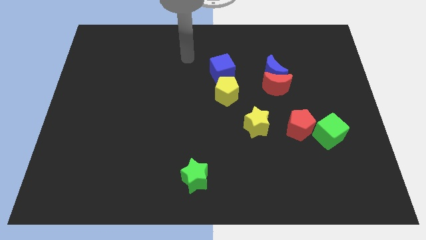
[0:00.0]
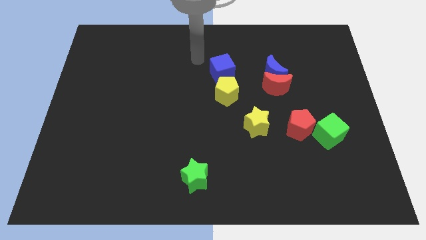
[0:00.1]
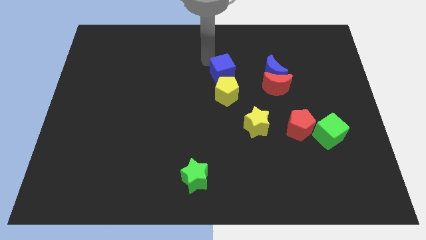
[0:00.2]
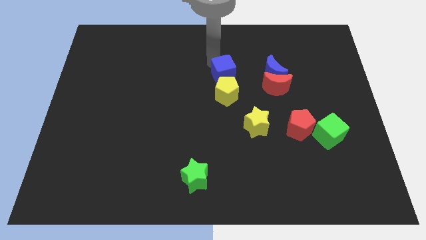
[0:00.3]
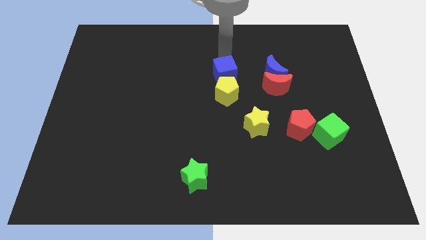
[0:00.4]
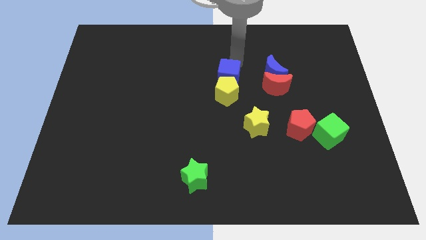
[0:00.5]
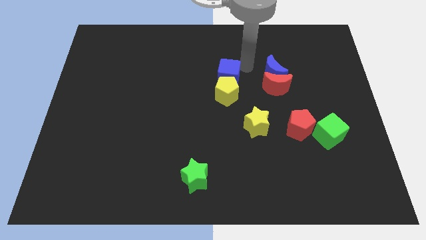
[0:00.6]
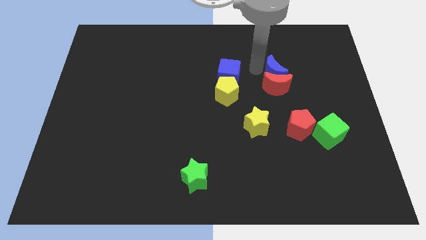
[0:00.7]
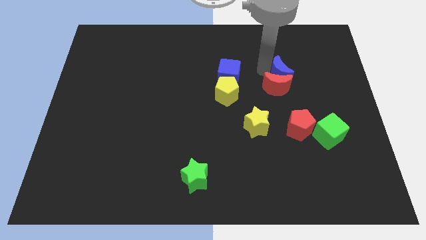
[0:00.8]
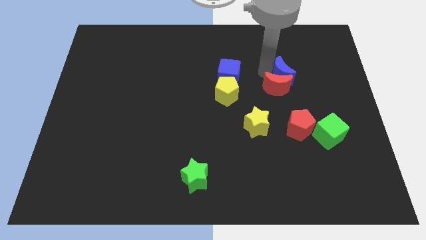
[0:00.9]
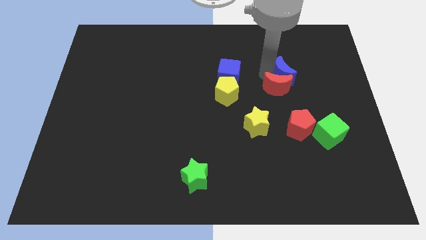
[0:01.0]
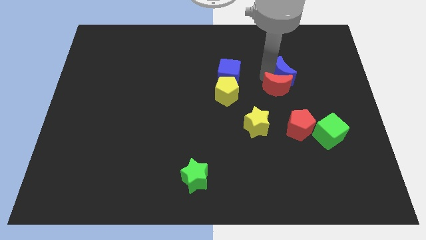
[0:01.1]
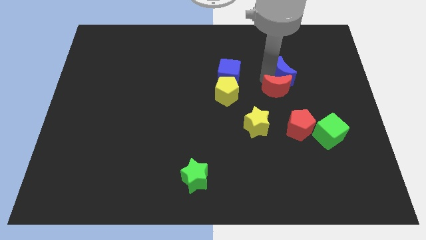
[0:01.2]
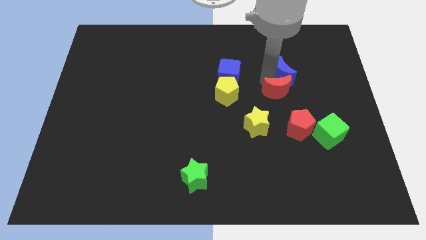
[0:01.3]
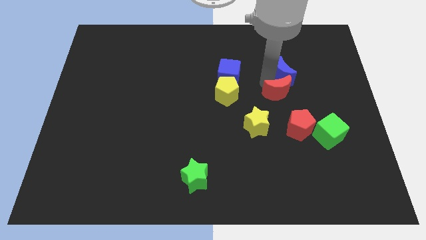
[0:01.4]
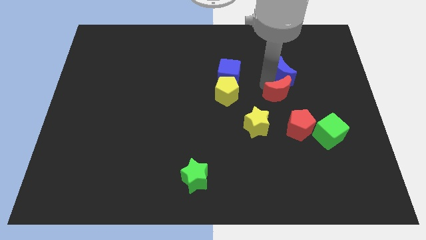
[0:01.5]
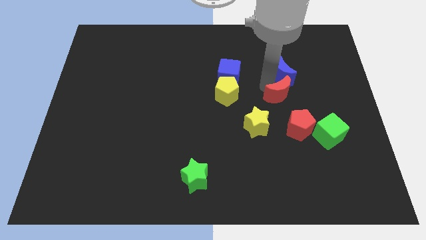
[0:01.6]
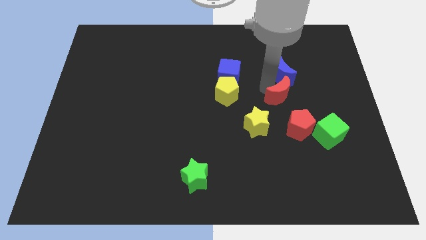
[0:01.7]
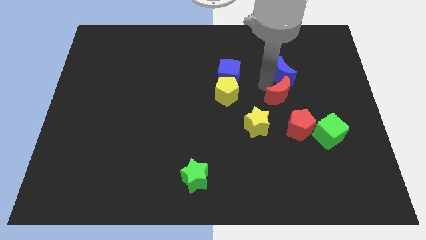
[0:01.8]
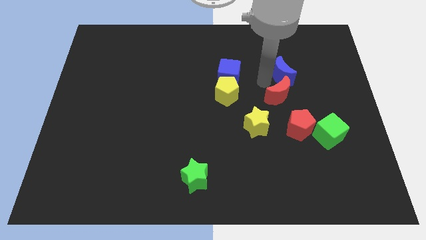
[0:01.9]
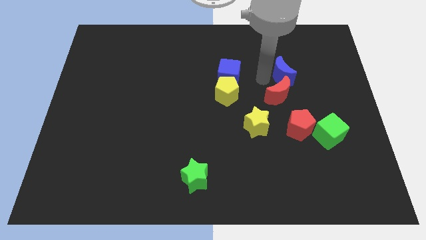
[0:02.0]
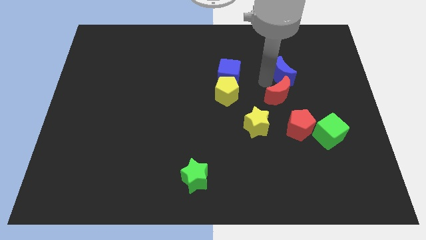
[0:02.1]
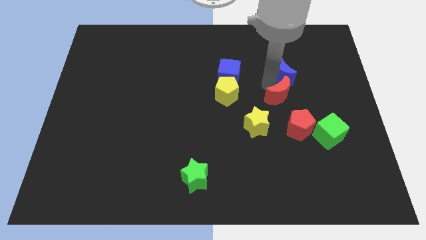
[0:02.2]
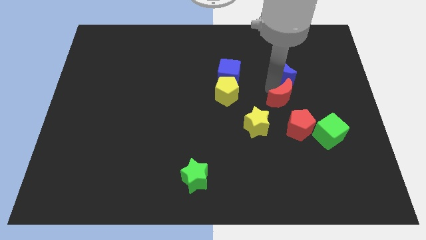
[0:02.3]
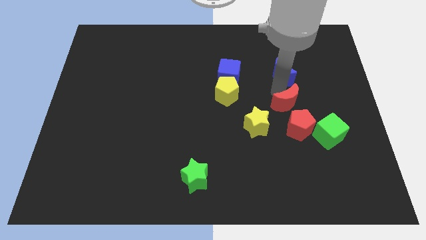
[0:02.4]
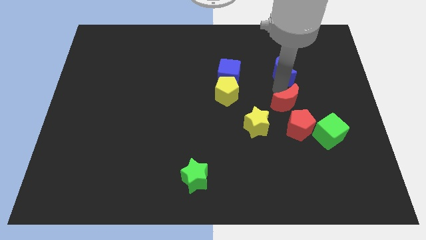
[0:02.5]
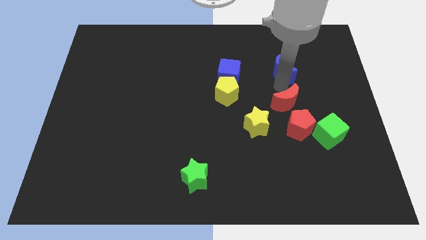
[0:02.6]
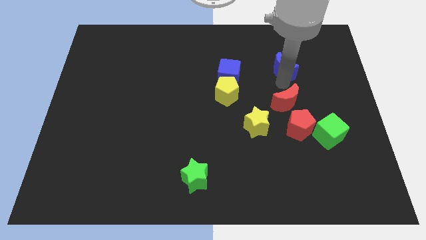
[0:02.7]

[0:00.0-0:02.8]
pull the red moon apart from the blue moon

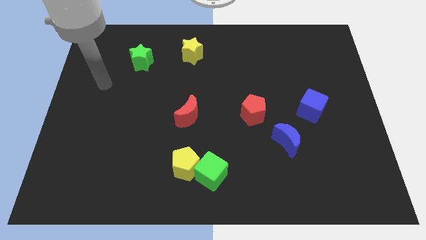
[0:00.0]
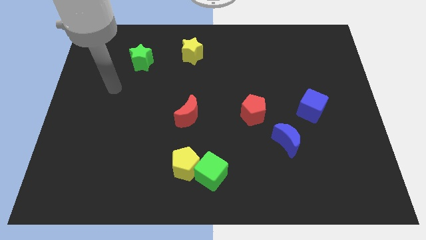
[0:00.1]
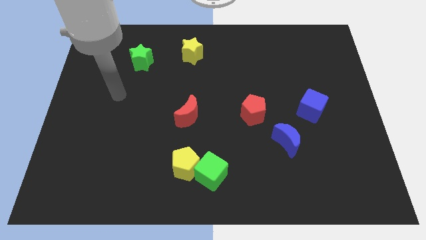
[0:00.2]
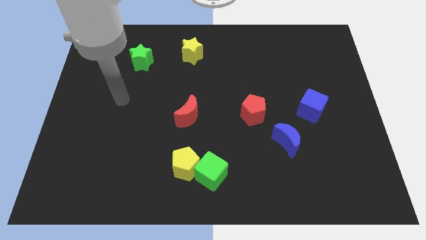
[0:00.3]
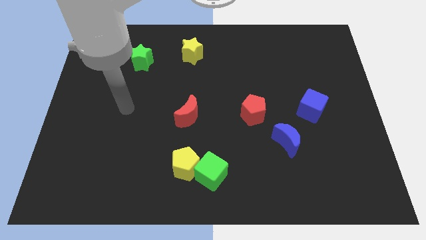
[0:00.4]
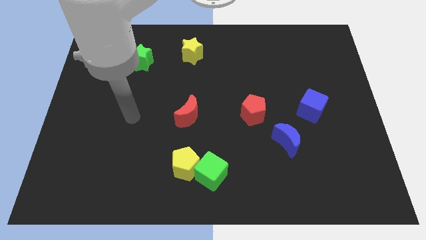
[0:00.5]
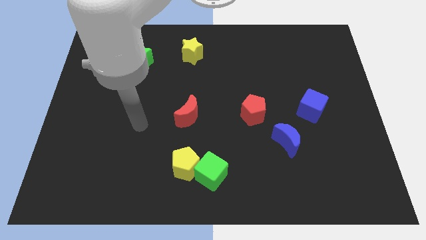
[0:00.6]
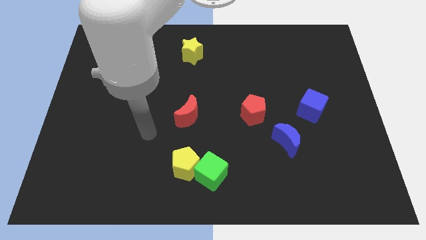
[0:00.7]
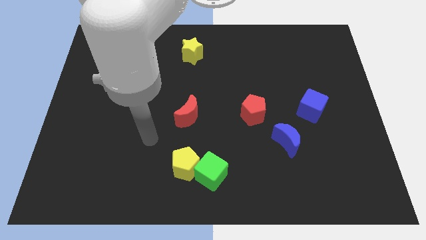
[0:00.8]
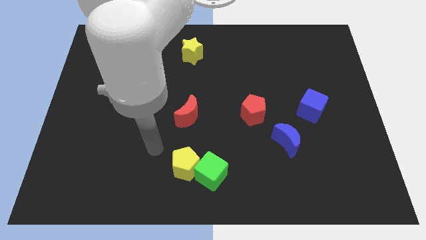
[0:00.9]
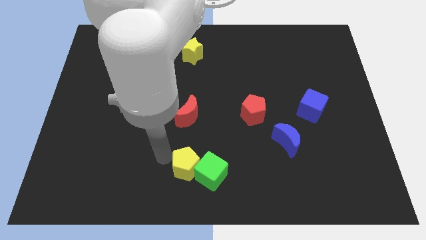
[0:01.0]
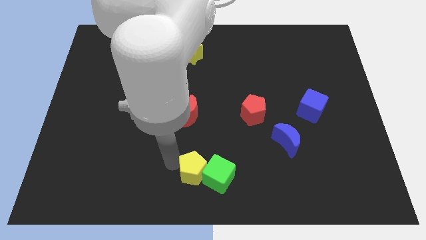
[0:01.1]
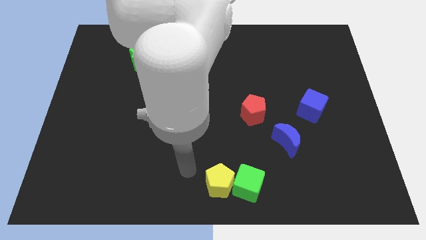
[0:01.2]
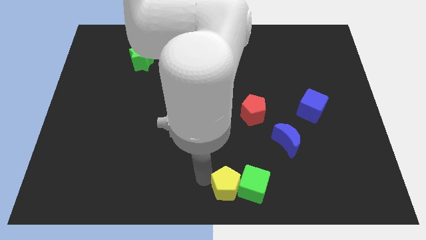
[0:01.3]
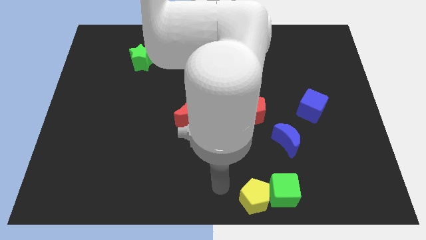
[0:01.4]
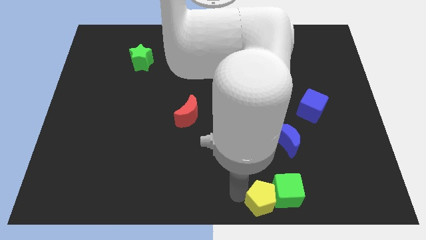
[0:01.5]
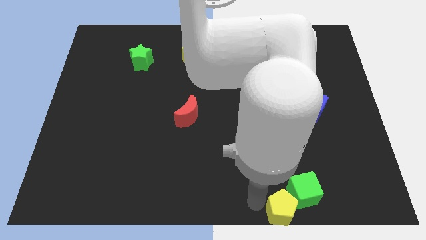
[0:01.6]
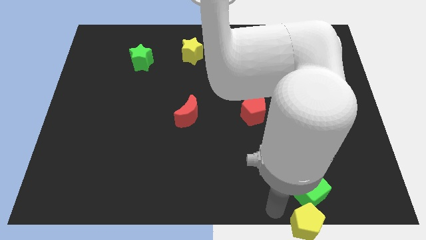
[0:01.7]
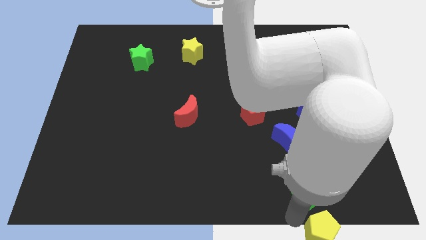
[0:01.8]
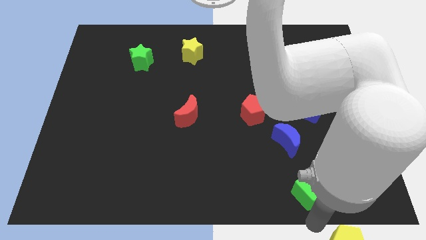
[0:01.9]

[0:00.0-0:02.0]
move the green cube away from the yellow pentagon

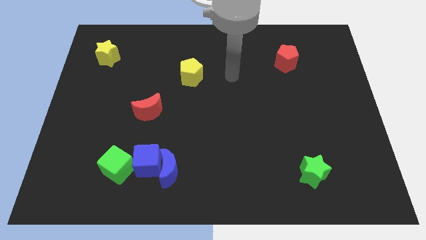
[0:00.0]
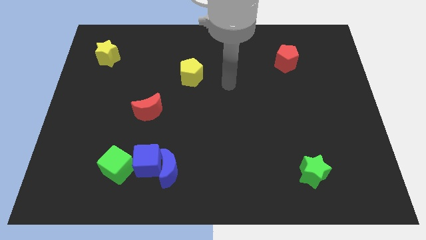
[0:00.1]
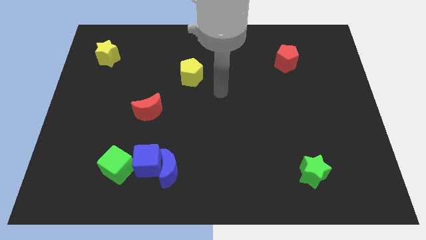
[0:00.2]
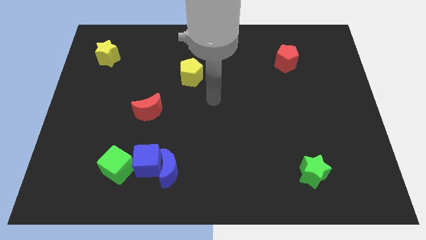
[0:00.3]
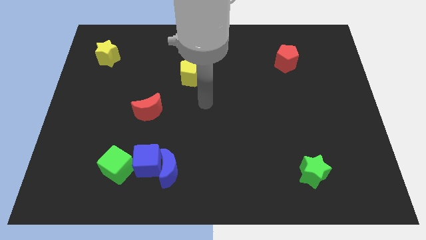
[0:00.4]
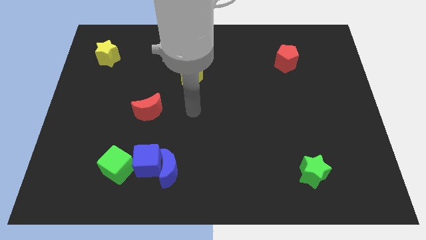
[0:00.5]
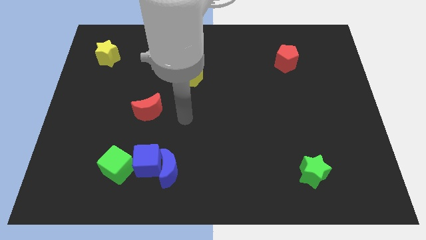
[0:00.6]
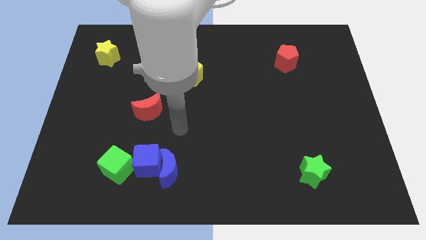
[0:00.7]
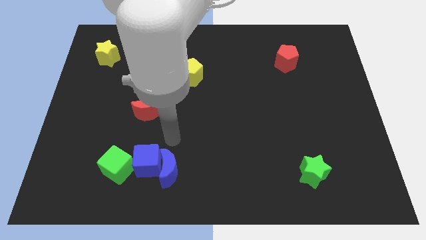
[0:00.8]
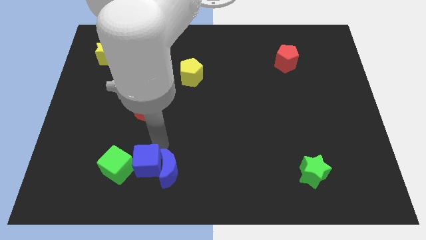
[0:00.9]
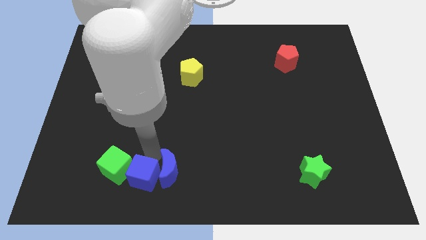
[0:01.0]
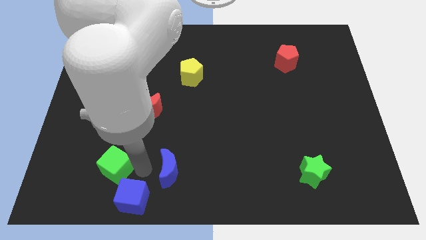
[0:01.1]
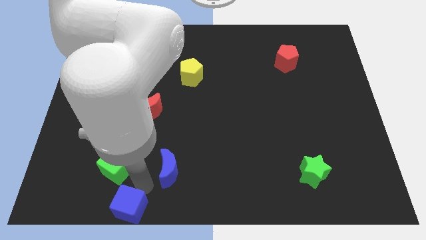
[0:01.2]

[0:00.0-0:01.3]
move the blue moon away from the blue cube

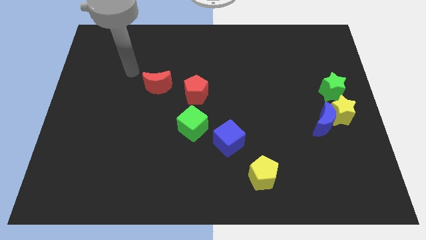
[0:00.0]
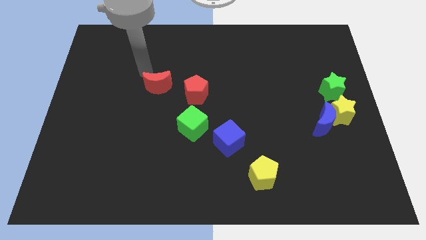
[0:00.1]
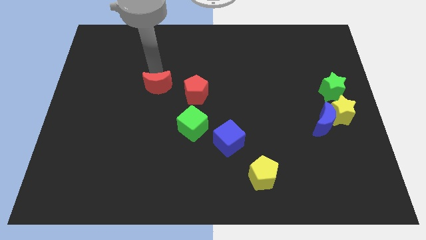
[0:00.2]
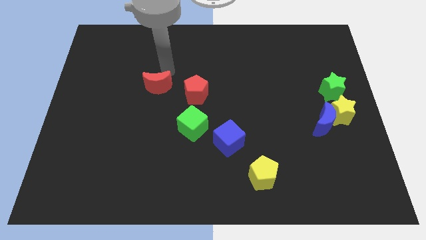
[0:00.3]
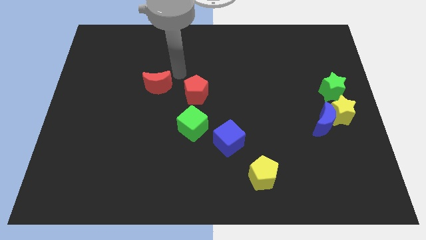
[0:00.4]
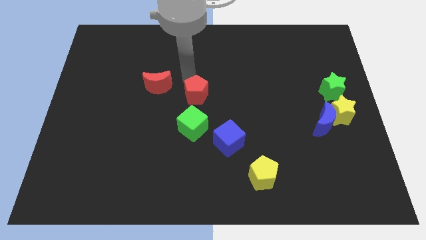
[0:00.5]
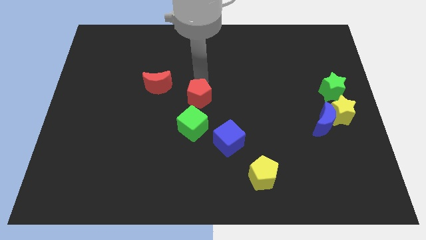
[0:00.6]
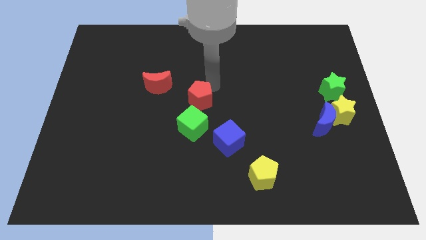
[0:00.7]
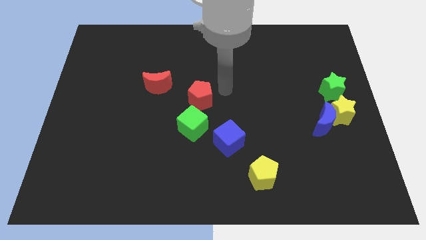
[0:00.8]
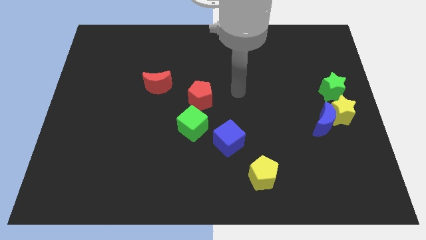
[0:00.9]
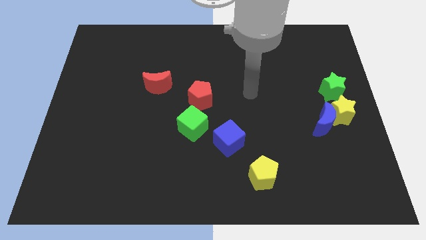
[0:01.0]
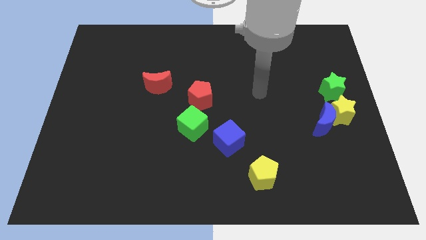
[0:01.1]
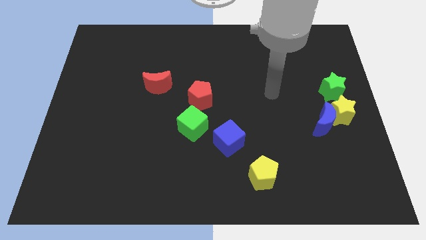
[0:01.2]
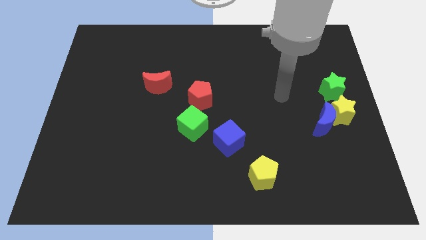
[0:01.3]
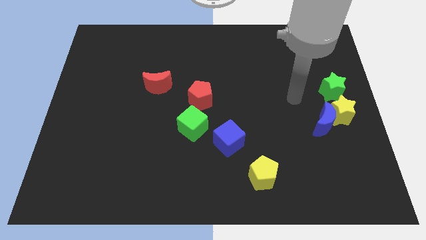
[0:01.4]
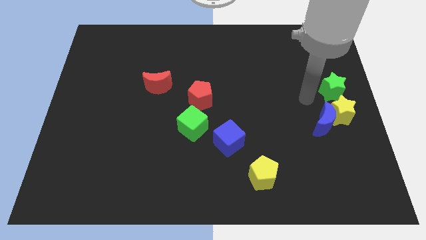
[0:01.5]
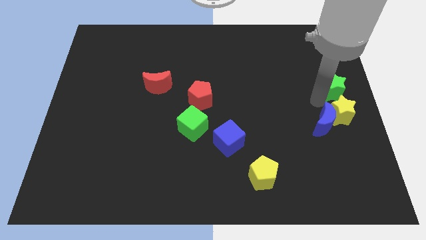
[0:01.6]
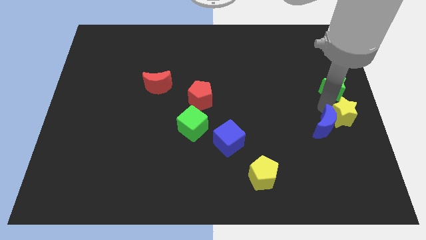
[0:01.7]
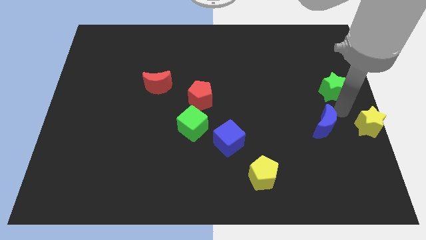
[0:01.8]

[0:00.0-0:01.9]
move the blue moon away from the yellow star

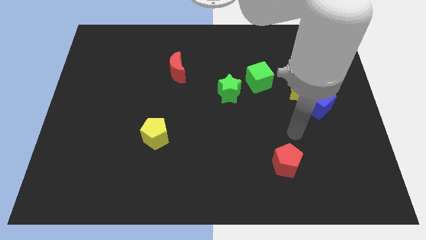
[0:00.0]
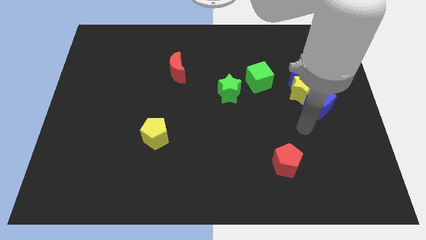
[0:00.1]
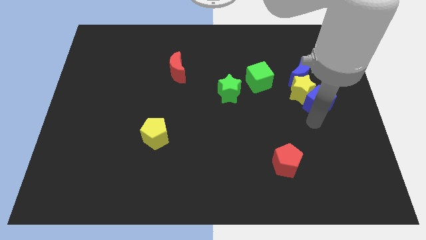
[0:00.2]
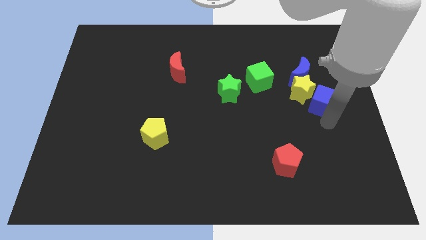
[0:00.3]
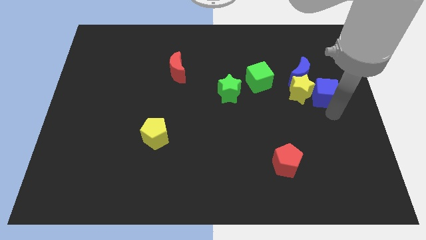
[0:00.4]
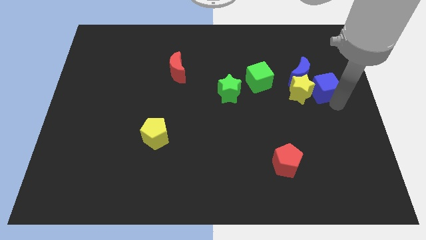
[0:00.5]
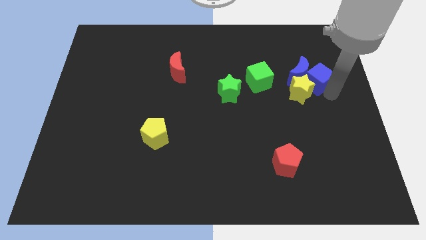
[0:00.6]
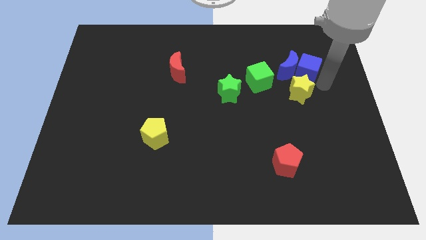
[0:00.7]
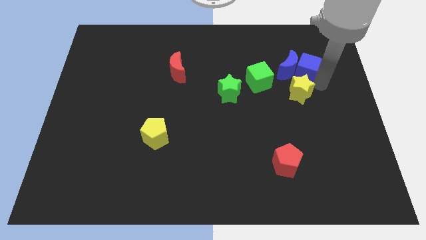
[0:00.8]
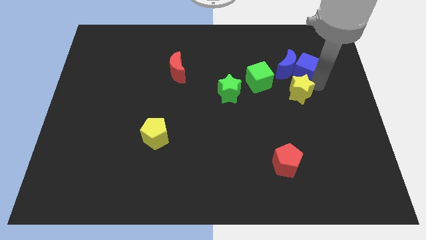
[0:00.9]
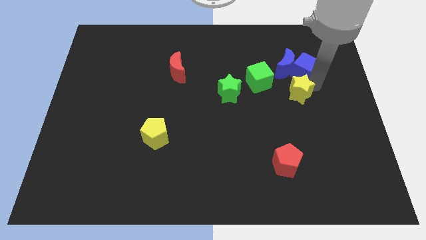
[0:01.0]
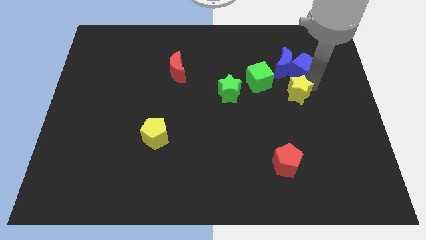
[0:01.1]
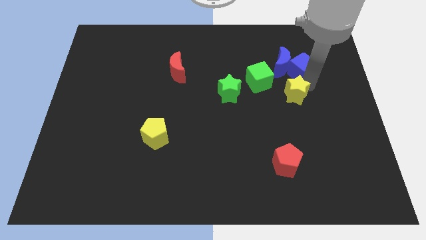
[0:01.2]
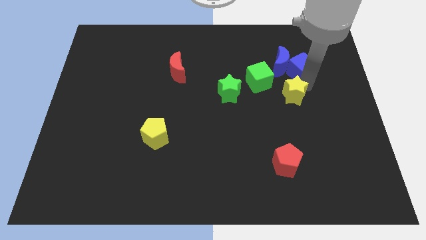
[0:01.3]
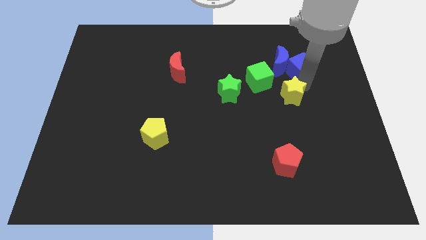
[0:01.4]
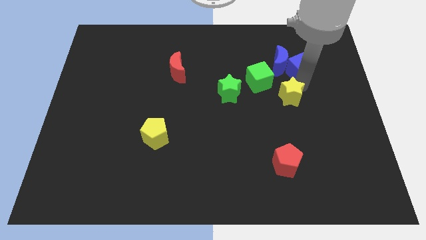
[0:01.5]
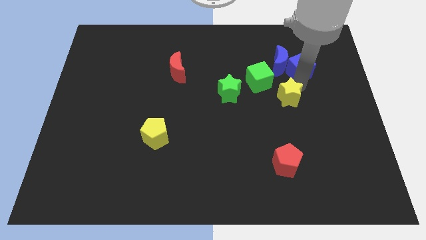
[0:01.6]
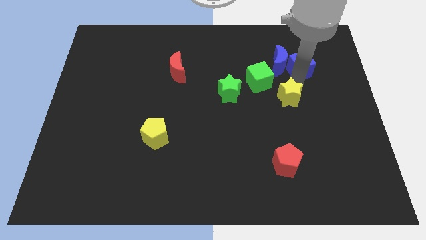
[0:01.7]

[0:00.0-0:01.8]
separate the yellow star from the blue cube and blue moon
